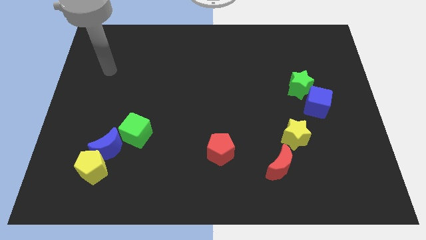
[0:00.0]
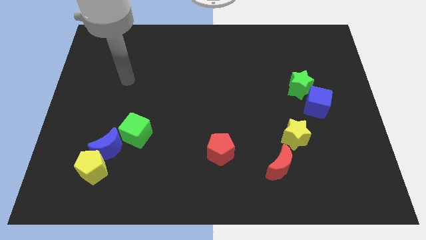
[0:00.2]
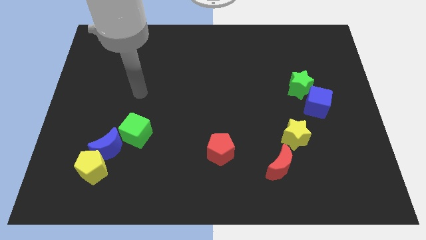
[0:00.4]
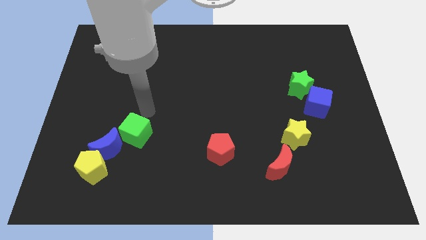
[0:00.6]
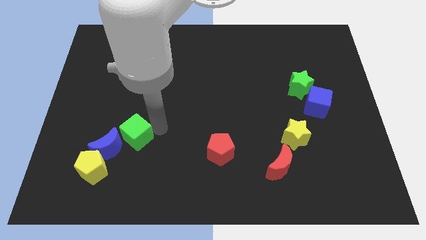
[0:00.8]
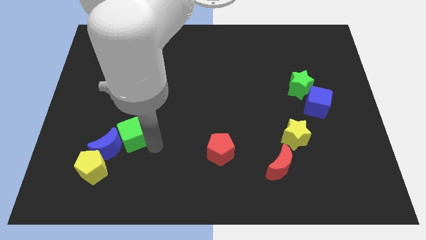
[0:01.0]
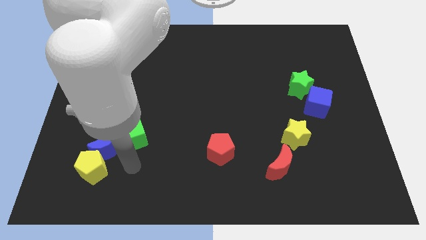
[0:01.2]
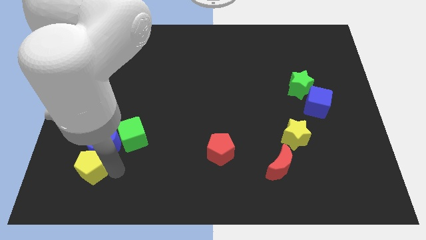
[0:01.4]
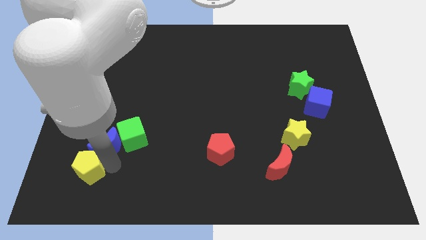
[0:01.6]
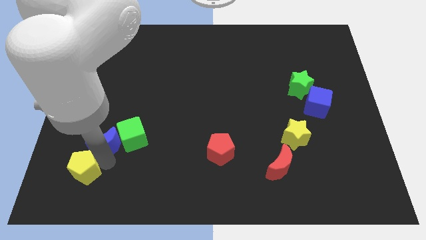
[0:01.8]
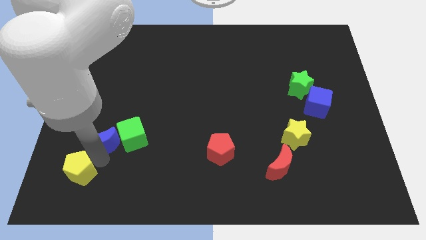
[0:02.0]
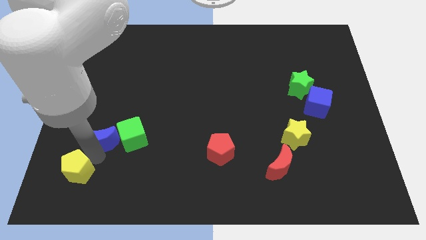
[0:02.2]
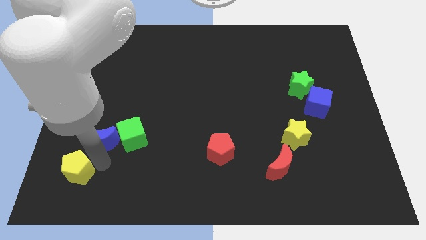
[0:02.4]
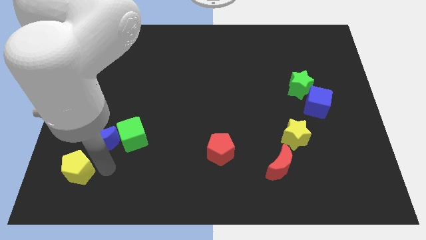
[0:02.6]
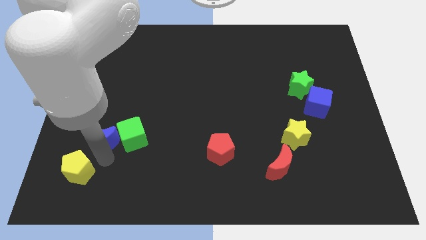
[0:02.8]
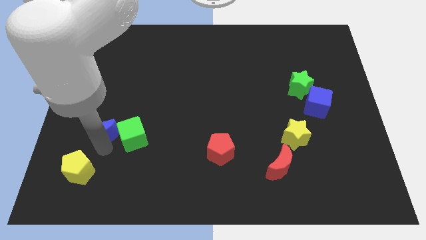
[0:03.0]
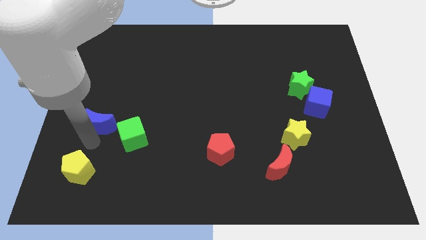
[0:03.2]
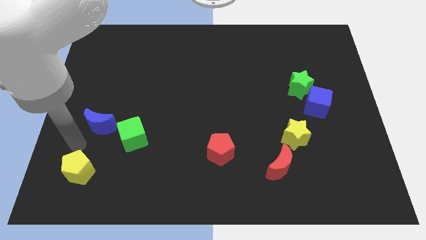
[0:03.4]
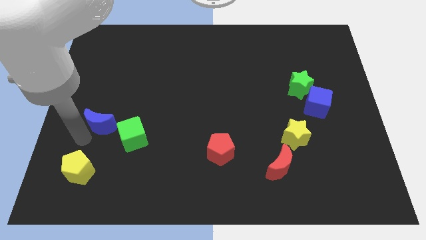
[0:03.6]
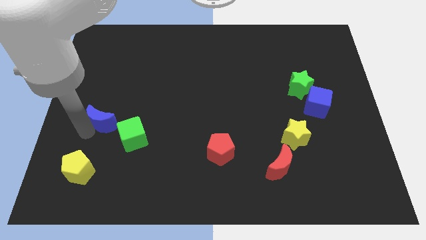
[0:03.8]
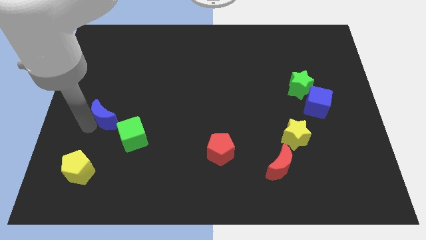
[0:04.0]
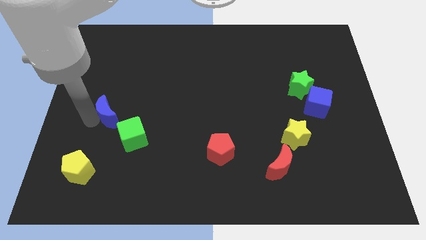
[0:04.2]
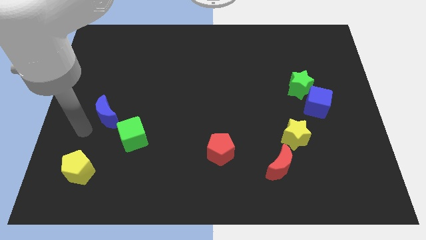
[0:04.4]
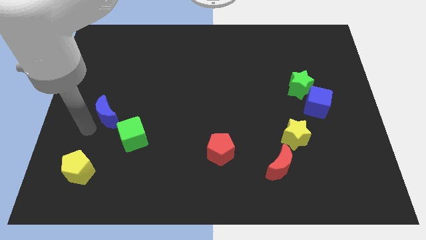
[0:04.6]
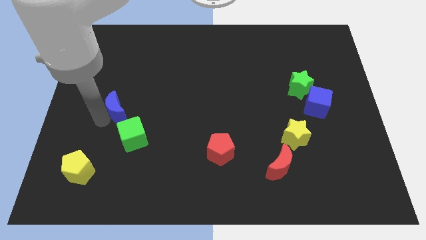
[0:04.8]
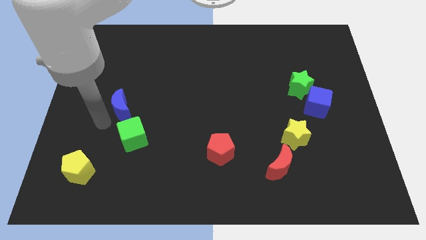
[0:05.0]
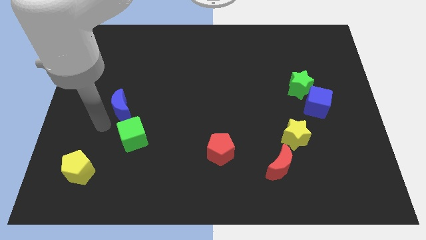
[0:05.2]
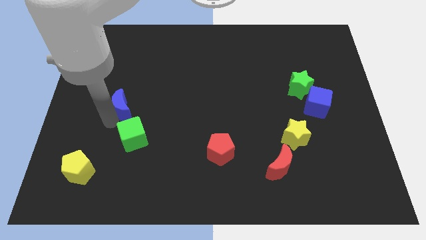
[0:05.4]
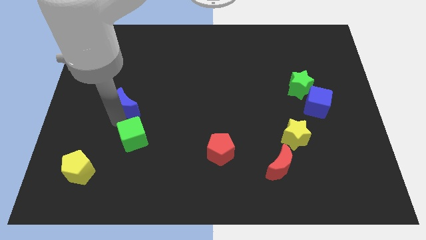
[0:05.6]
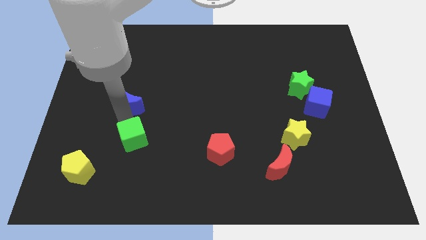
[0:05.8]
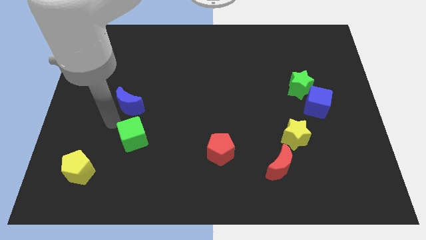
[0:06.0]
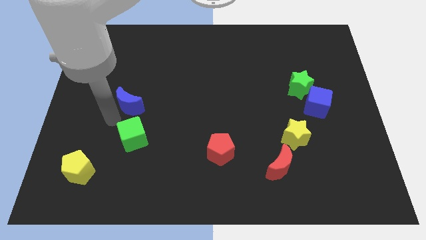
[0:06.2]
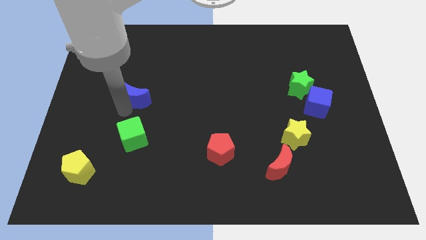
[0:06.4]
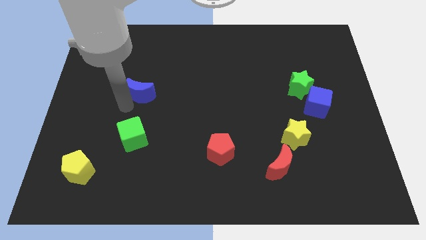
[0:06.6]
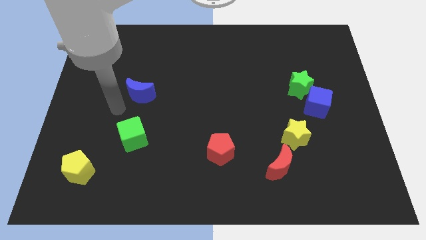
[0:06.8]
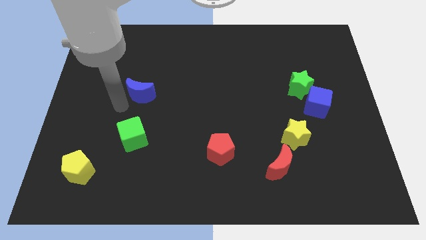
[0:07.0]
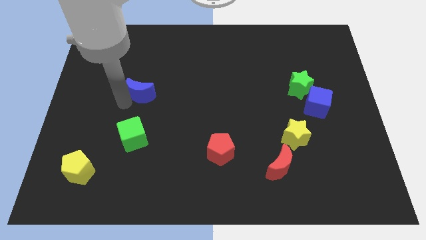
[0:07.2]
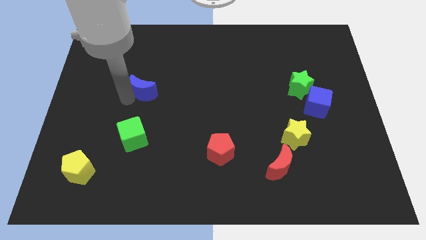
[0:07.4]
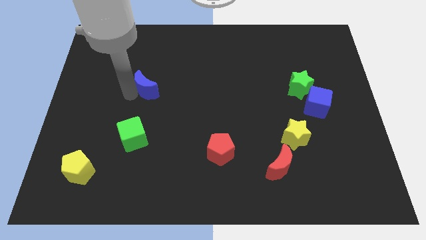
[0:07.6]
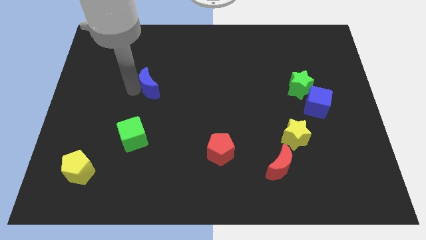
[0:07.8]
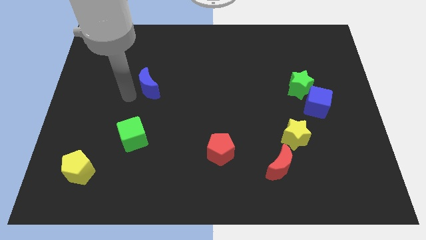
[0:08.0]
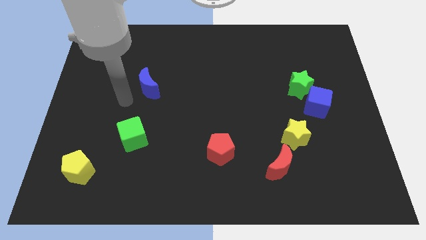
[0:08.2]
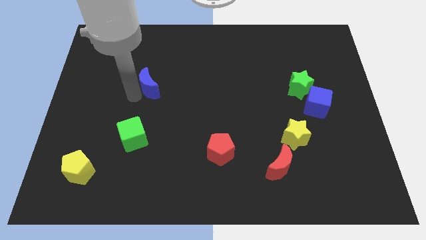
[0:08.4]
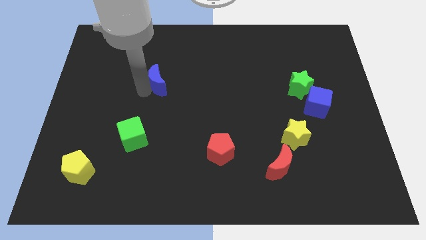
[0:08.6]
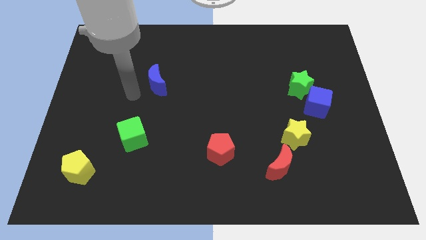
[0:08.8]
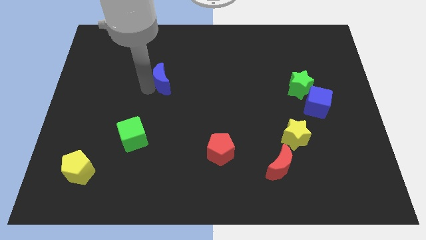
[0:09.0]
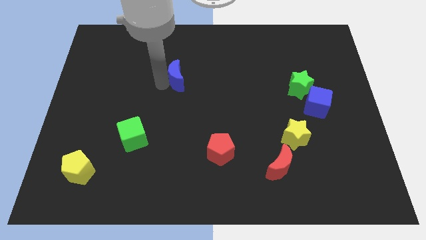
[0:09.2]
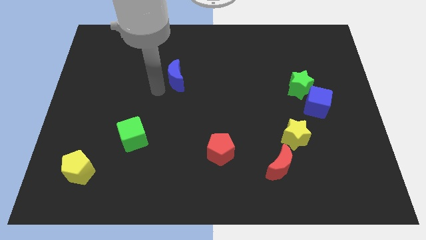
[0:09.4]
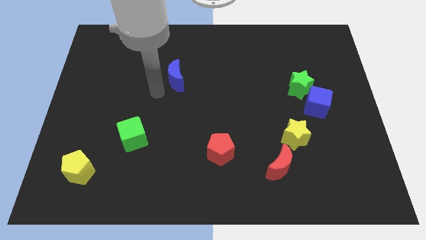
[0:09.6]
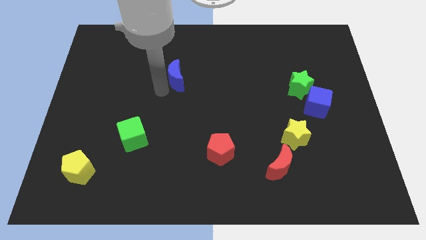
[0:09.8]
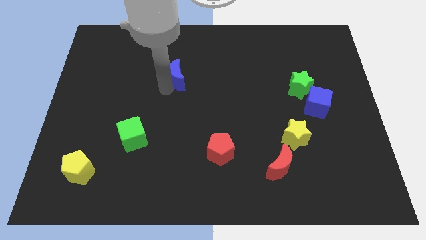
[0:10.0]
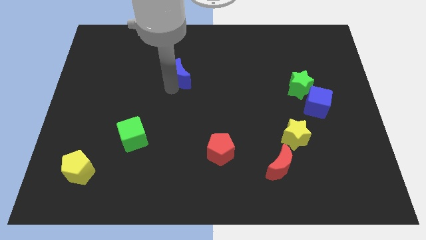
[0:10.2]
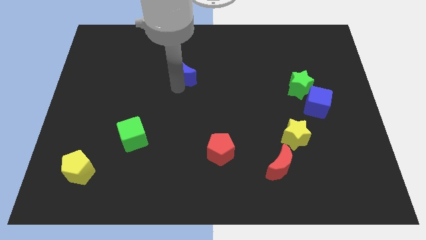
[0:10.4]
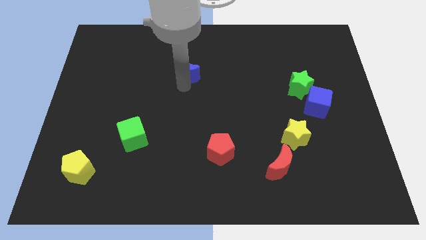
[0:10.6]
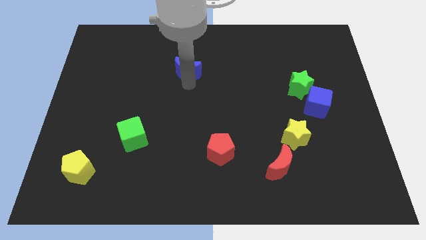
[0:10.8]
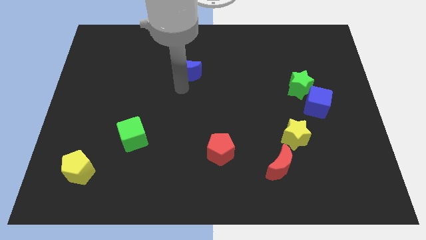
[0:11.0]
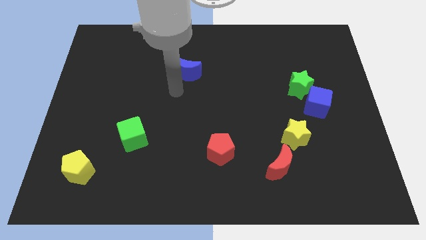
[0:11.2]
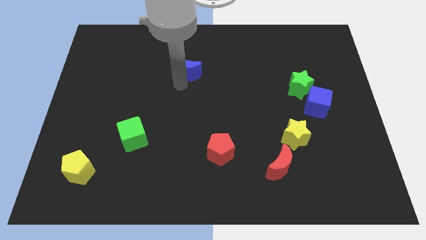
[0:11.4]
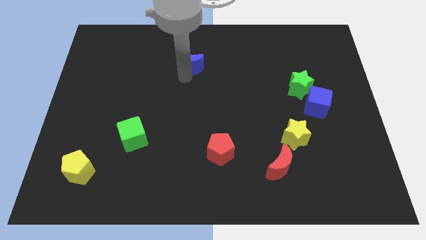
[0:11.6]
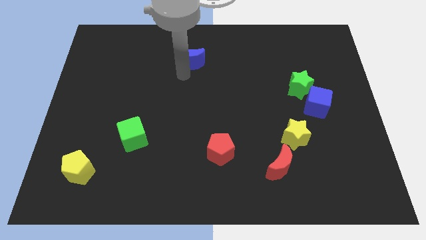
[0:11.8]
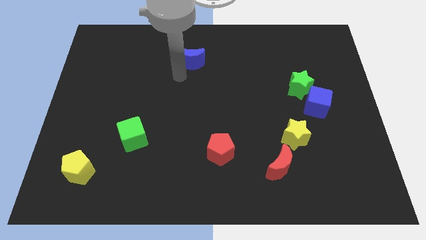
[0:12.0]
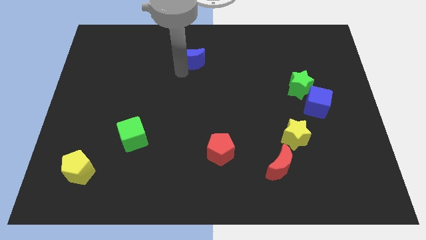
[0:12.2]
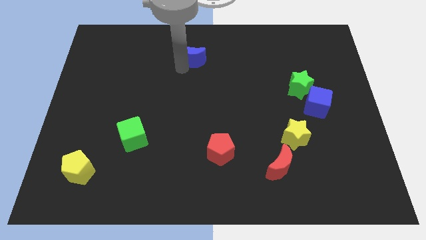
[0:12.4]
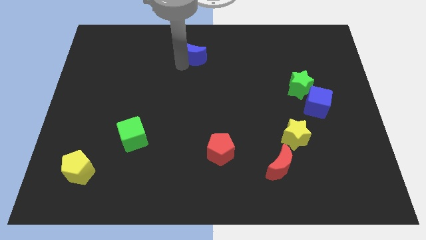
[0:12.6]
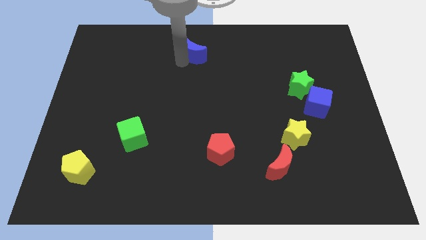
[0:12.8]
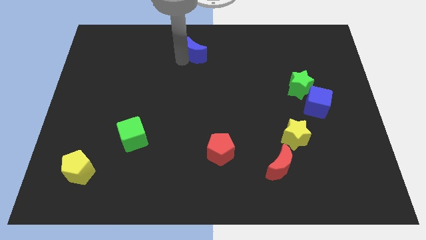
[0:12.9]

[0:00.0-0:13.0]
push the blue moon to the top side

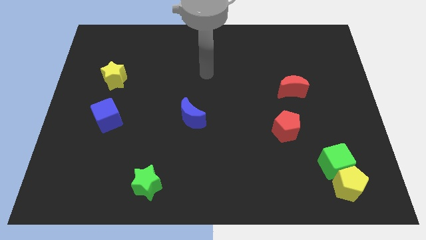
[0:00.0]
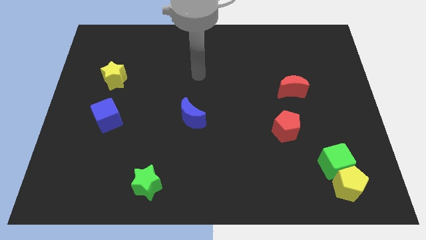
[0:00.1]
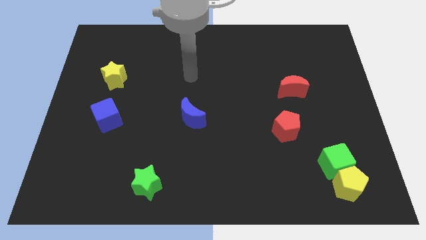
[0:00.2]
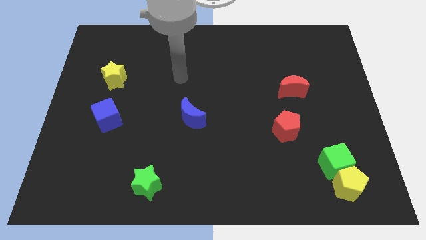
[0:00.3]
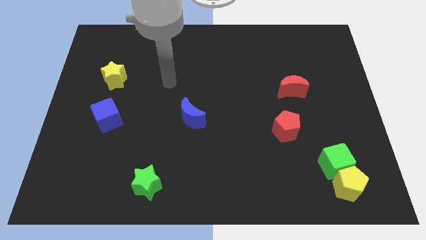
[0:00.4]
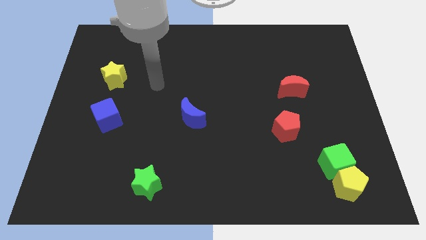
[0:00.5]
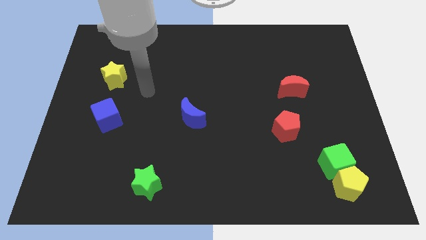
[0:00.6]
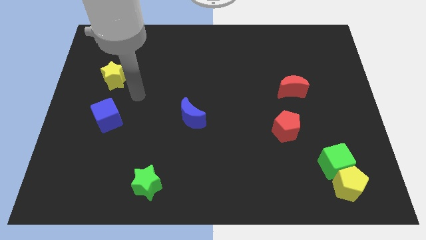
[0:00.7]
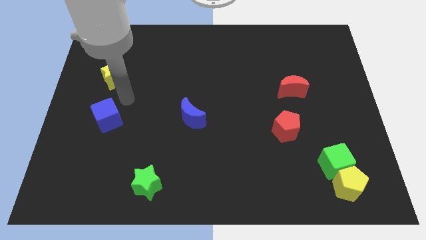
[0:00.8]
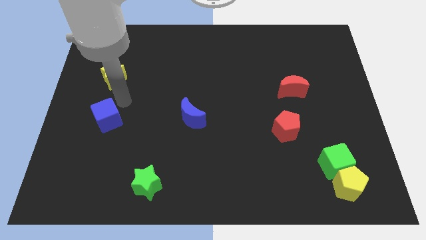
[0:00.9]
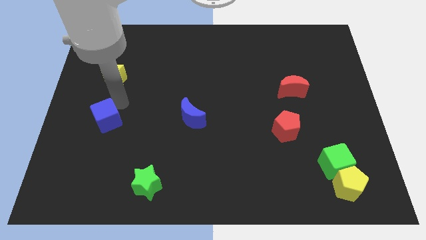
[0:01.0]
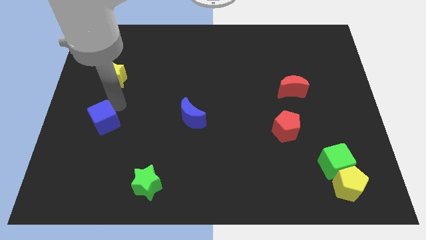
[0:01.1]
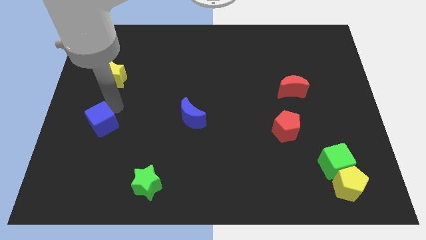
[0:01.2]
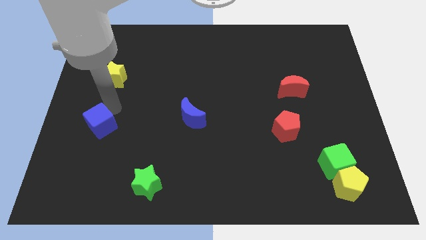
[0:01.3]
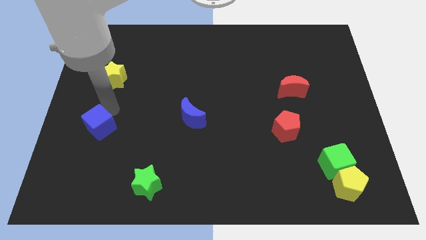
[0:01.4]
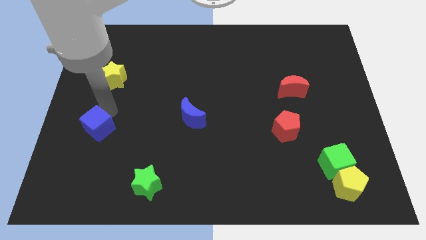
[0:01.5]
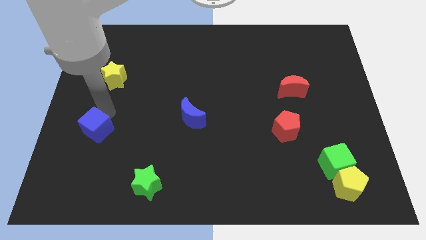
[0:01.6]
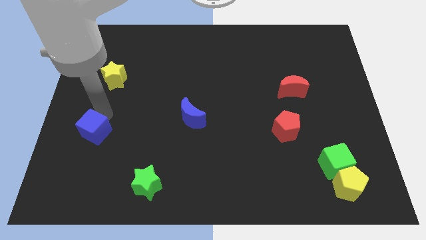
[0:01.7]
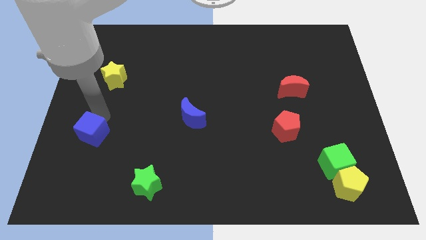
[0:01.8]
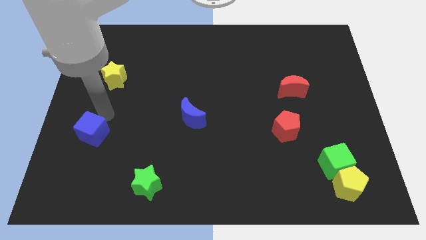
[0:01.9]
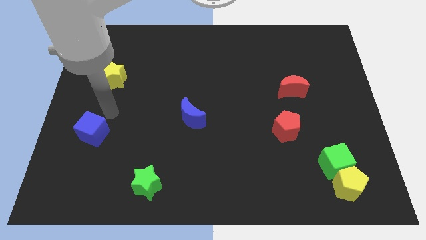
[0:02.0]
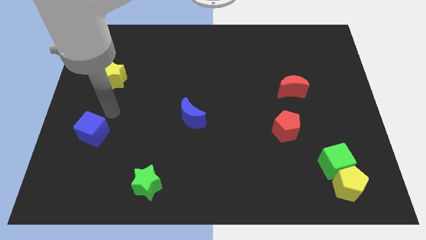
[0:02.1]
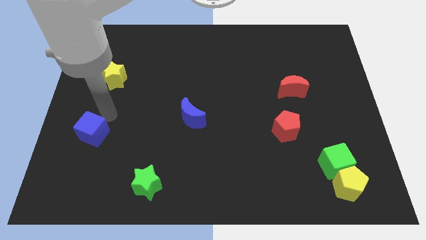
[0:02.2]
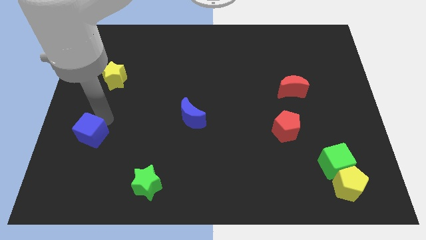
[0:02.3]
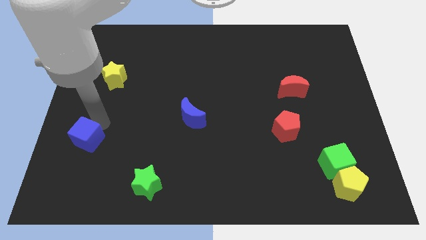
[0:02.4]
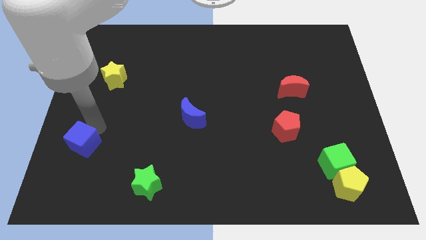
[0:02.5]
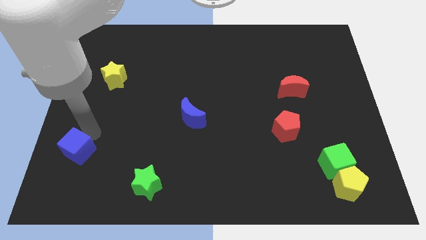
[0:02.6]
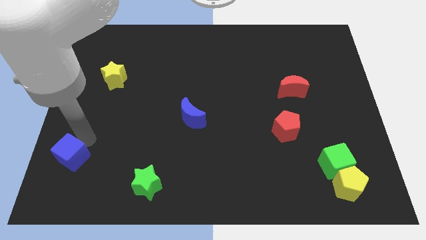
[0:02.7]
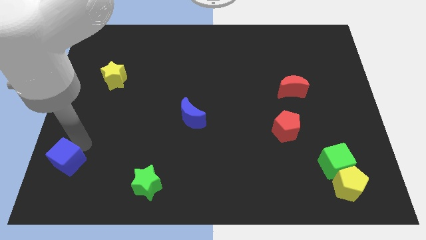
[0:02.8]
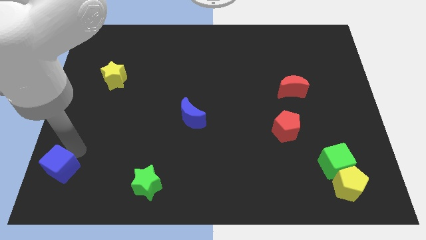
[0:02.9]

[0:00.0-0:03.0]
move the blue cube to the bottom left corner
